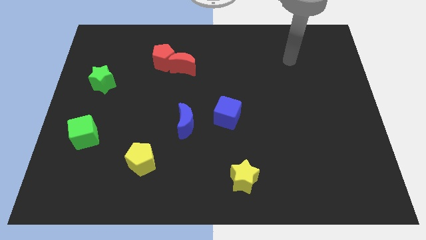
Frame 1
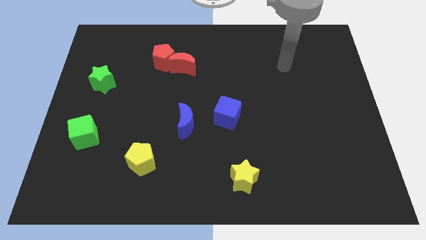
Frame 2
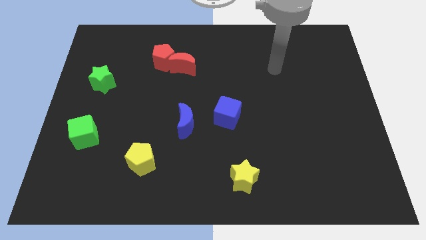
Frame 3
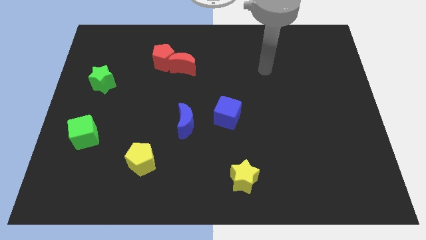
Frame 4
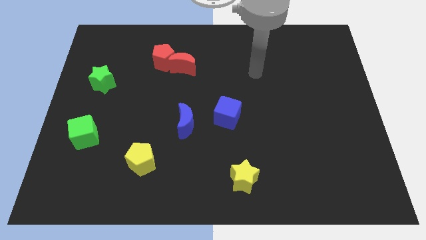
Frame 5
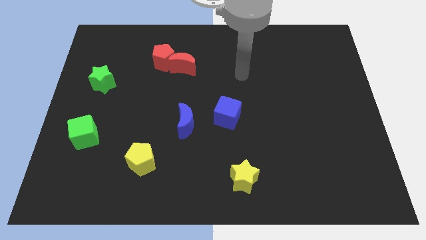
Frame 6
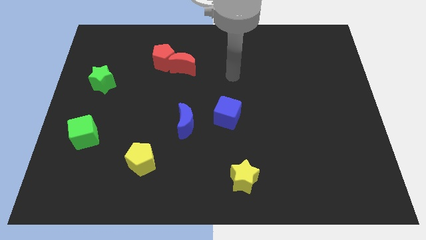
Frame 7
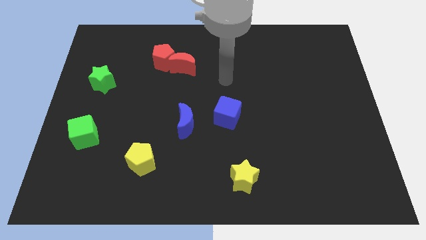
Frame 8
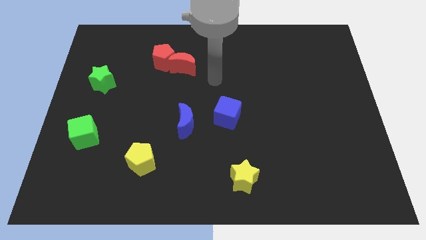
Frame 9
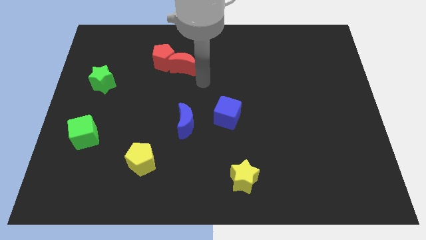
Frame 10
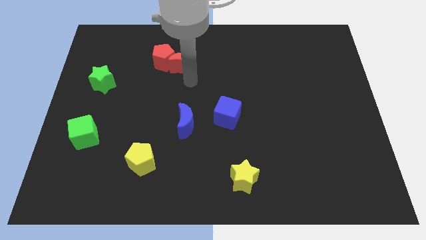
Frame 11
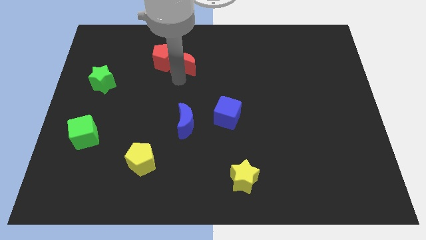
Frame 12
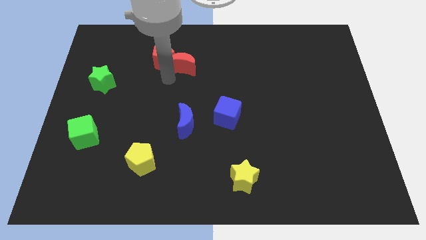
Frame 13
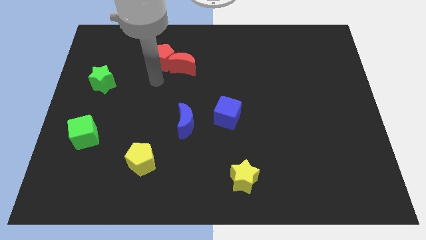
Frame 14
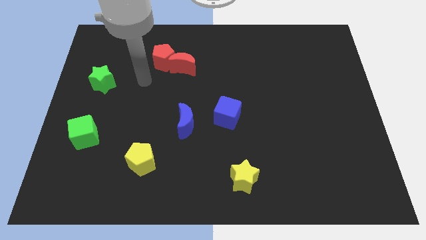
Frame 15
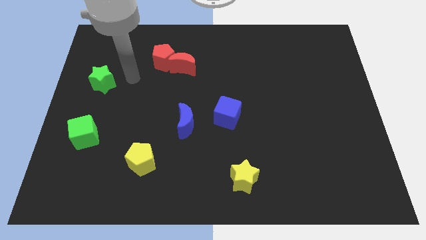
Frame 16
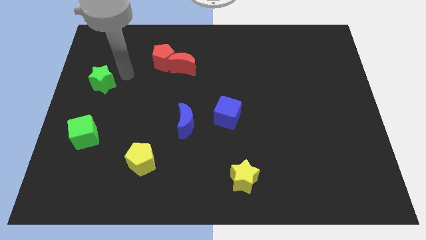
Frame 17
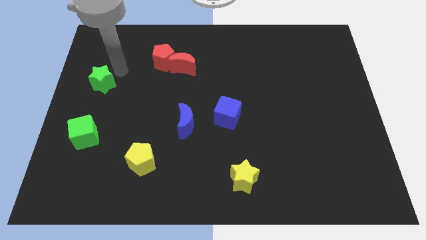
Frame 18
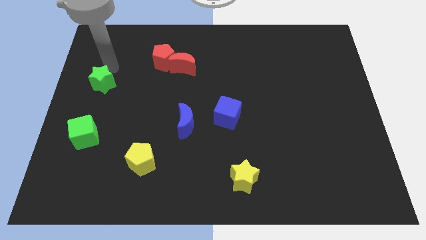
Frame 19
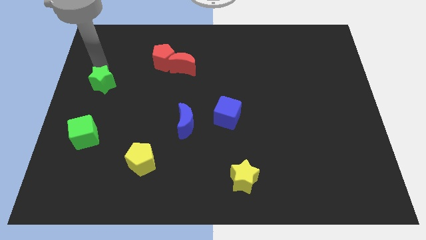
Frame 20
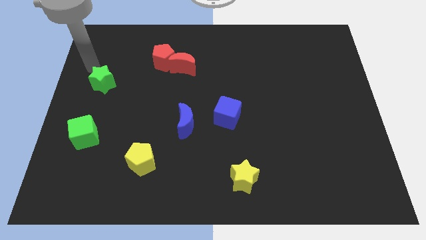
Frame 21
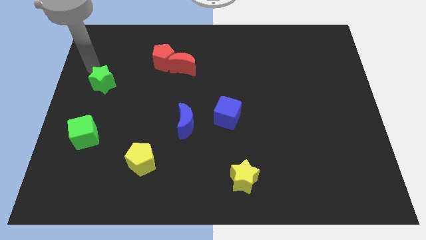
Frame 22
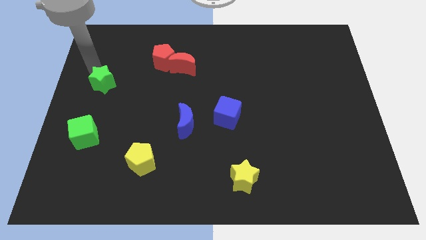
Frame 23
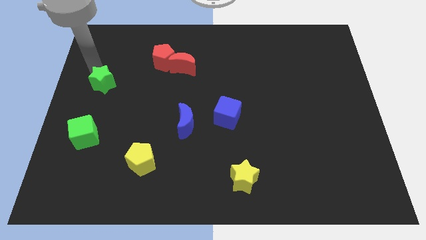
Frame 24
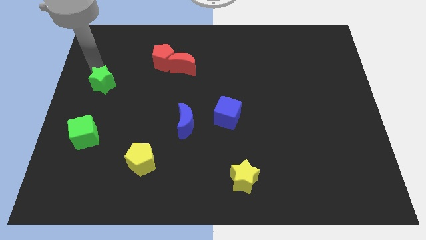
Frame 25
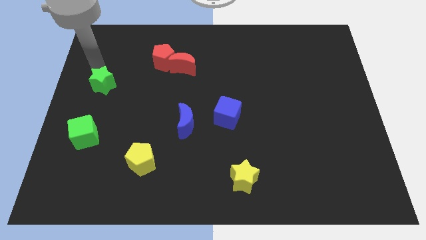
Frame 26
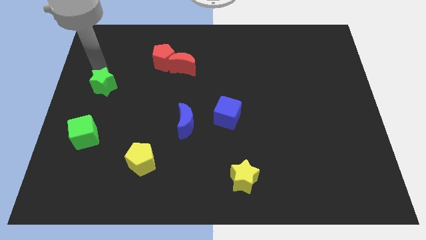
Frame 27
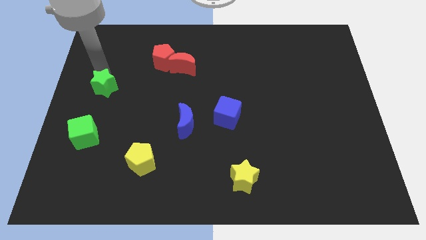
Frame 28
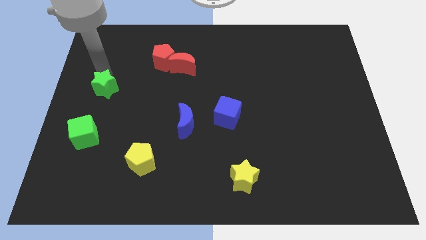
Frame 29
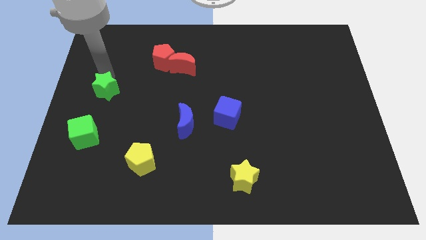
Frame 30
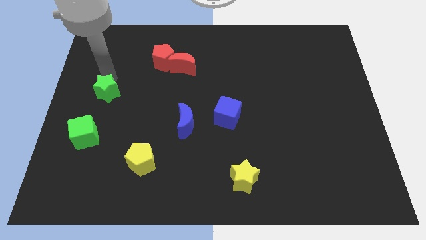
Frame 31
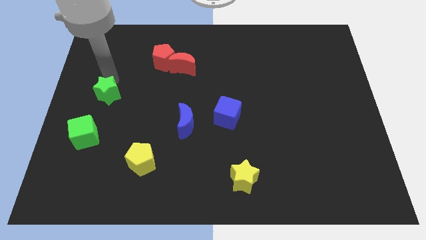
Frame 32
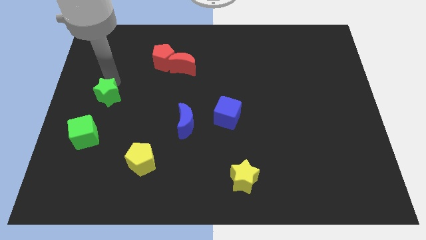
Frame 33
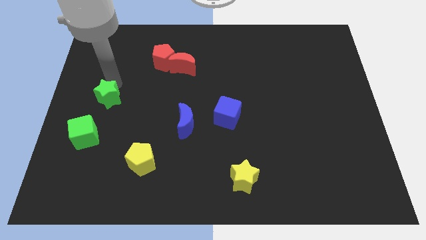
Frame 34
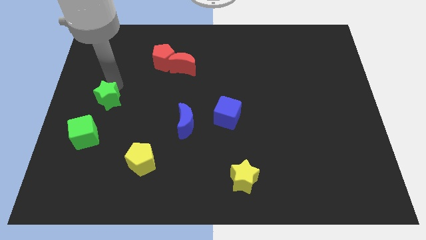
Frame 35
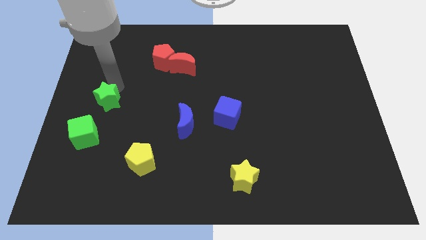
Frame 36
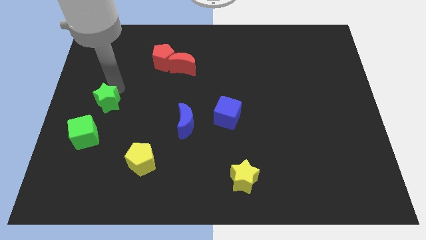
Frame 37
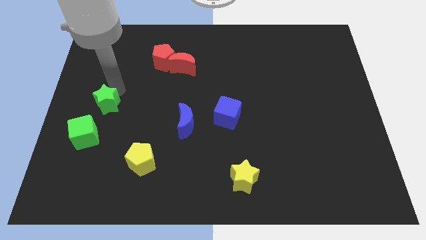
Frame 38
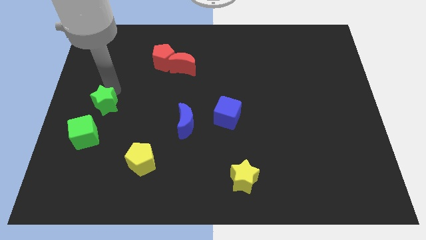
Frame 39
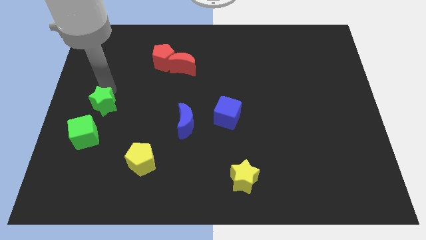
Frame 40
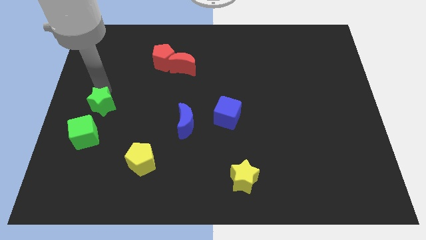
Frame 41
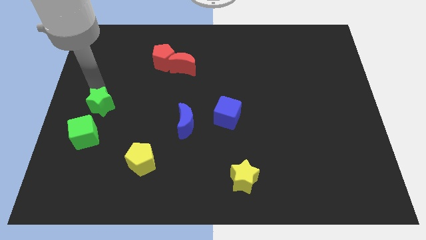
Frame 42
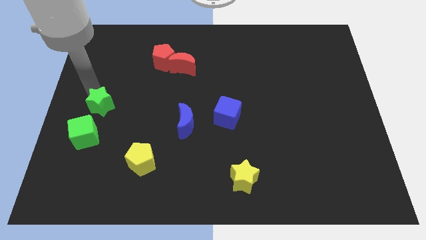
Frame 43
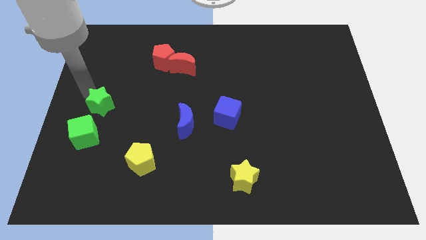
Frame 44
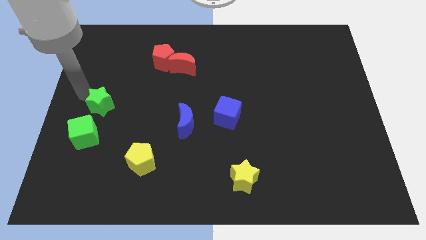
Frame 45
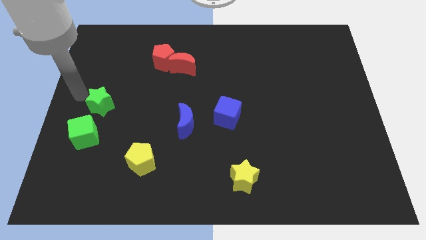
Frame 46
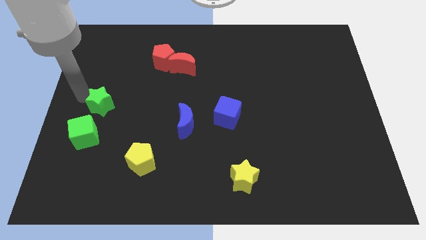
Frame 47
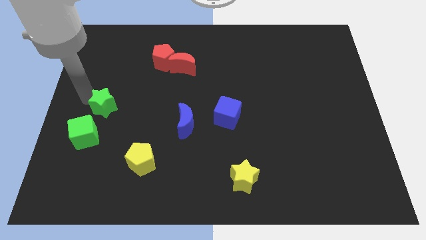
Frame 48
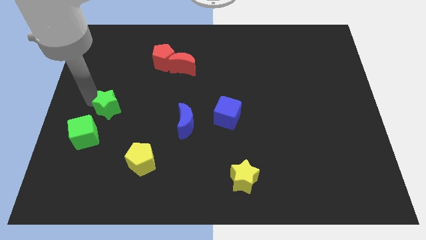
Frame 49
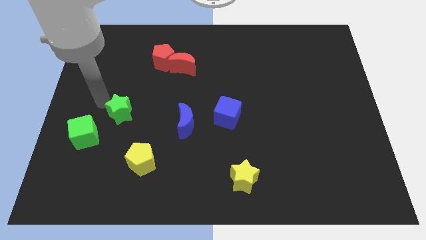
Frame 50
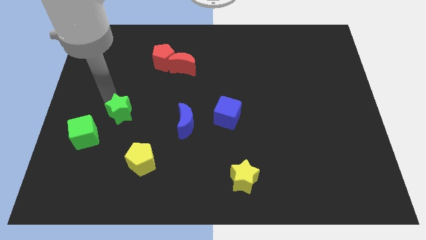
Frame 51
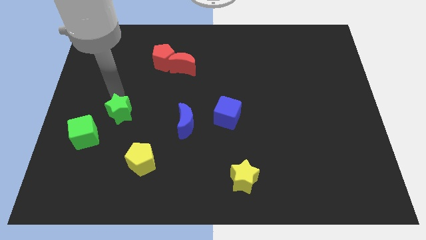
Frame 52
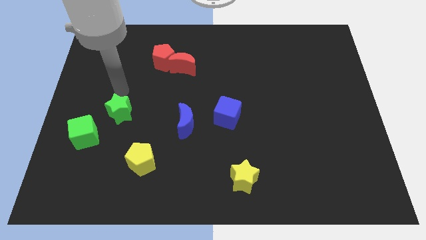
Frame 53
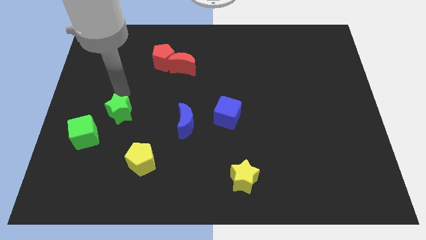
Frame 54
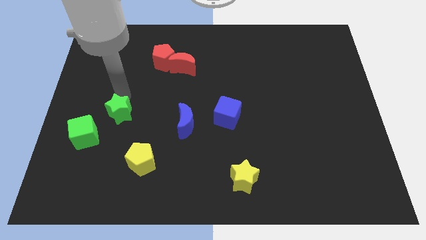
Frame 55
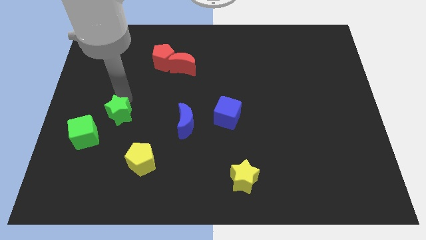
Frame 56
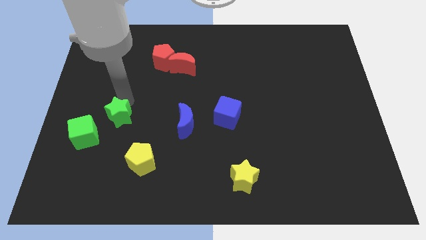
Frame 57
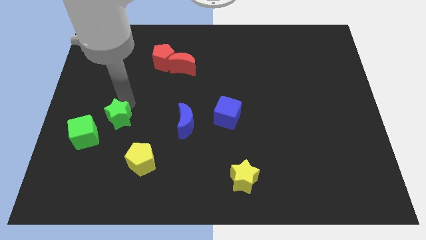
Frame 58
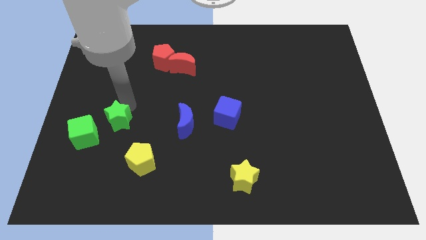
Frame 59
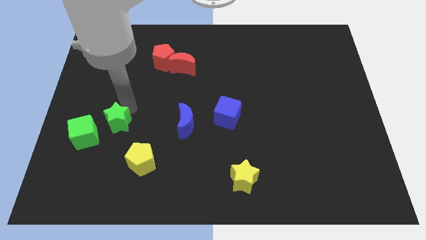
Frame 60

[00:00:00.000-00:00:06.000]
move the green star diagonally up and to the left of the yellow pentagon
